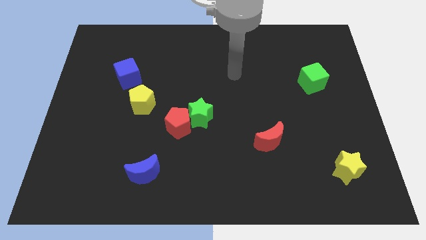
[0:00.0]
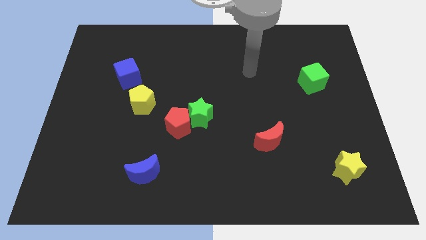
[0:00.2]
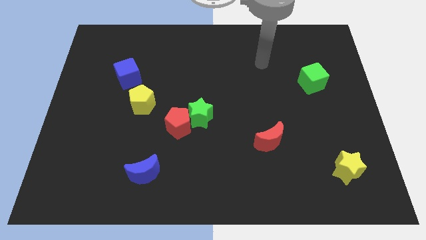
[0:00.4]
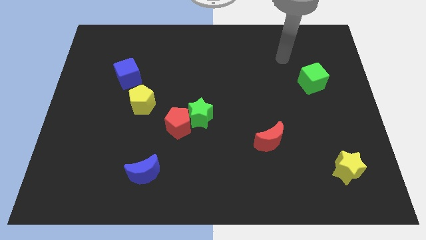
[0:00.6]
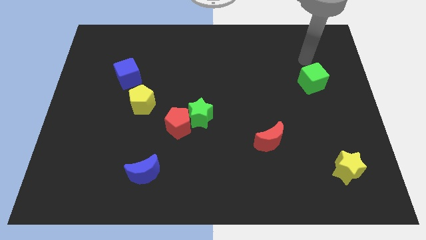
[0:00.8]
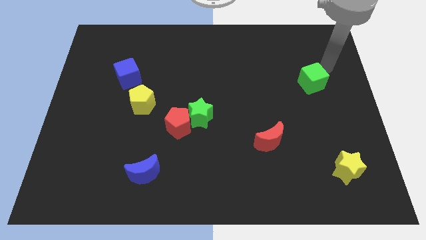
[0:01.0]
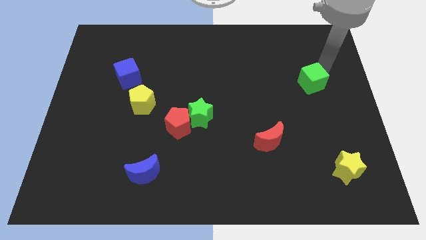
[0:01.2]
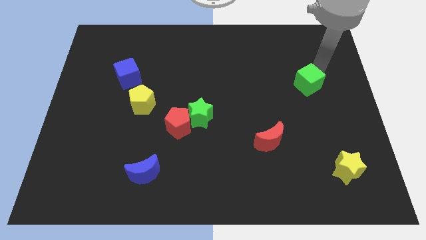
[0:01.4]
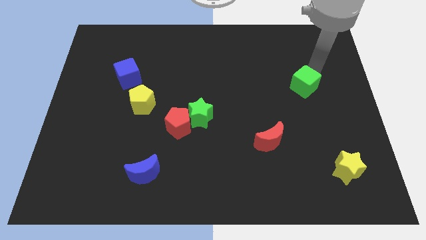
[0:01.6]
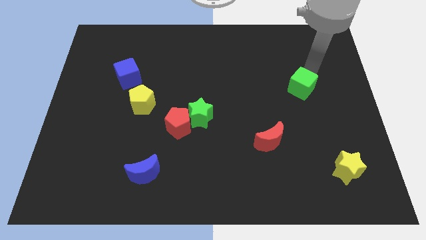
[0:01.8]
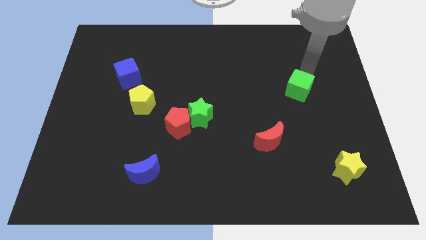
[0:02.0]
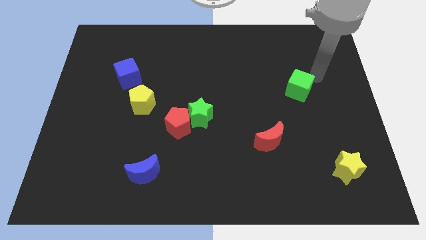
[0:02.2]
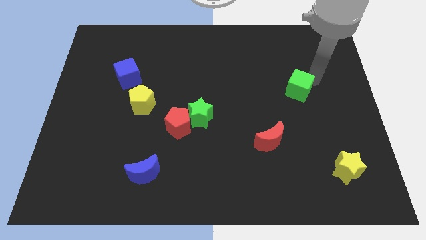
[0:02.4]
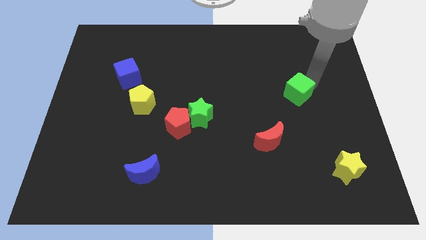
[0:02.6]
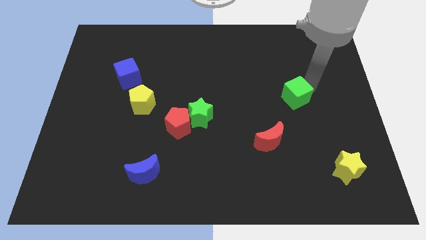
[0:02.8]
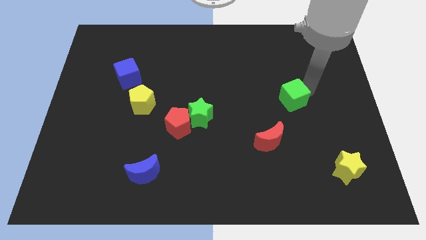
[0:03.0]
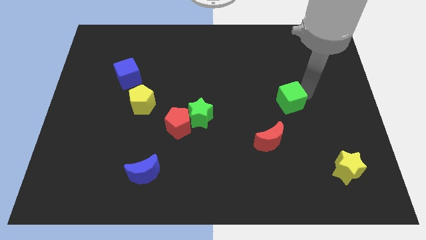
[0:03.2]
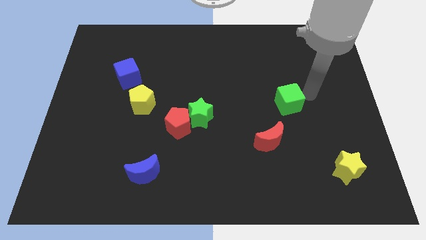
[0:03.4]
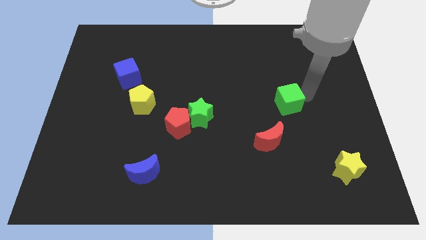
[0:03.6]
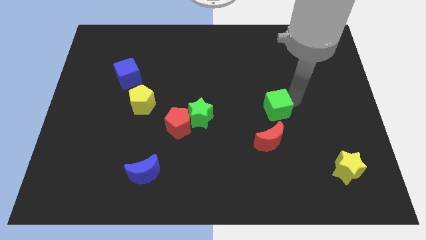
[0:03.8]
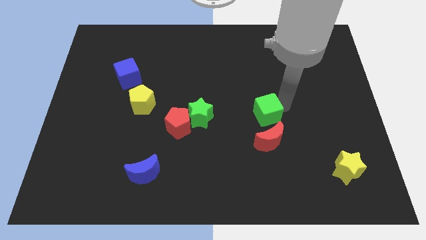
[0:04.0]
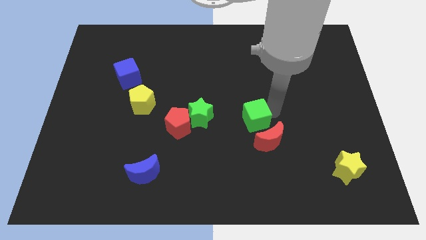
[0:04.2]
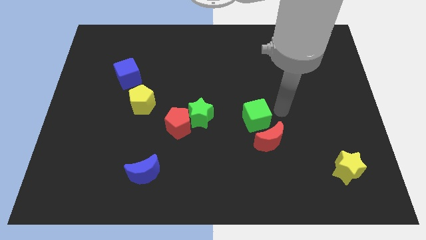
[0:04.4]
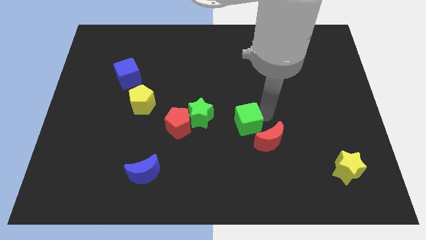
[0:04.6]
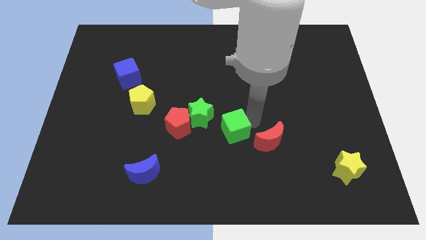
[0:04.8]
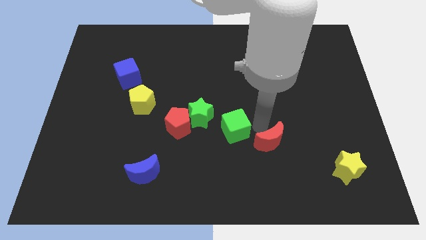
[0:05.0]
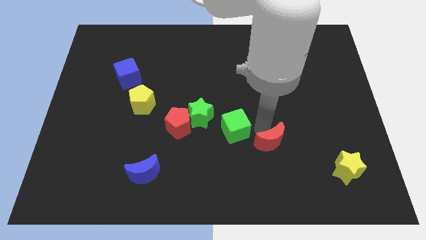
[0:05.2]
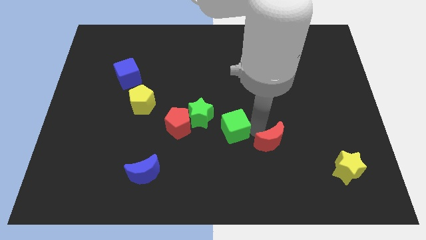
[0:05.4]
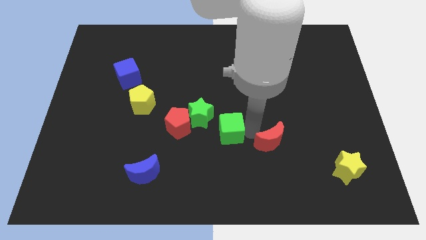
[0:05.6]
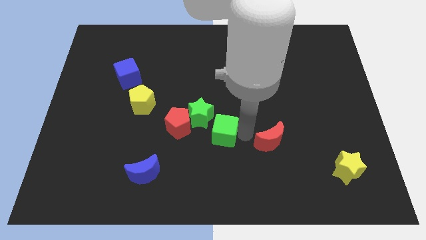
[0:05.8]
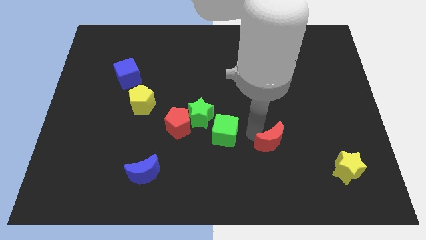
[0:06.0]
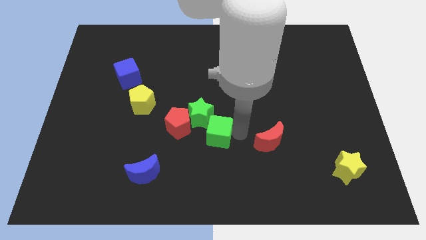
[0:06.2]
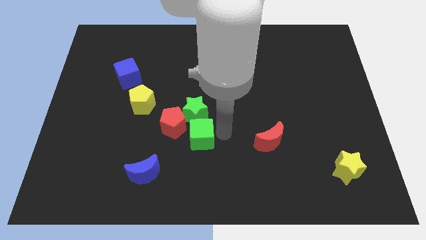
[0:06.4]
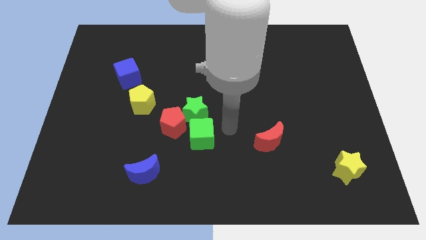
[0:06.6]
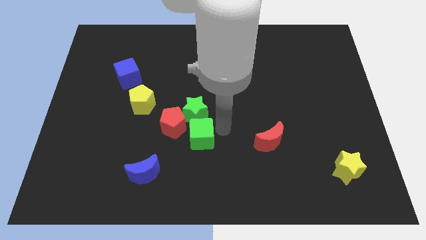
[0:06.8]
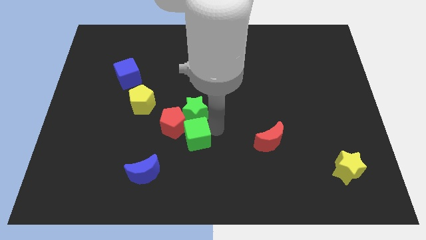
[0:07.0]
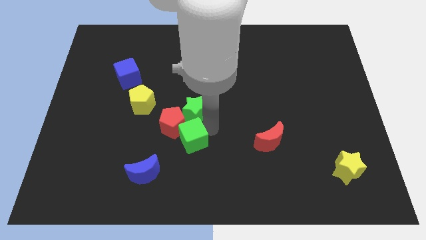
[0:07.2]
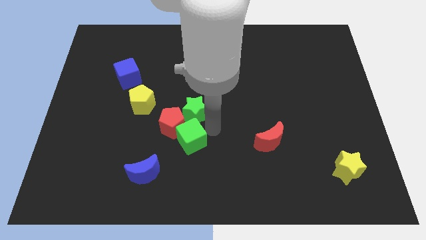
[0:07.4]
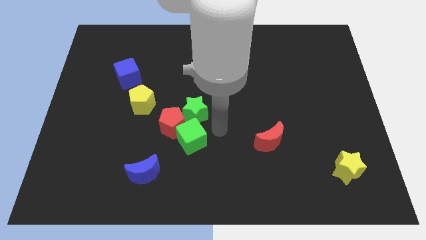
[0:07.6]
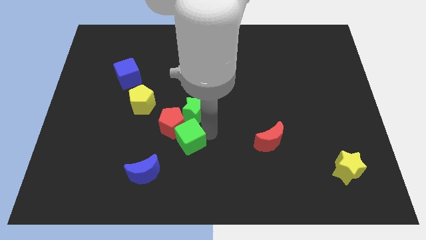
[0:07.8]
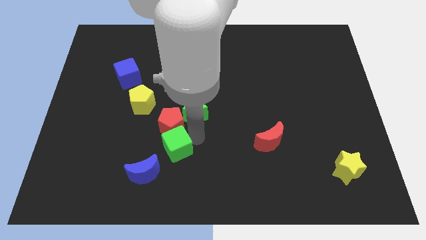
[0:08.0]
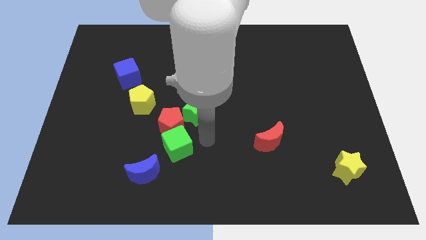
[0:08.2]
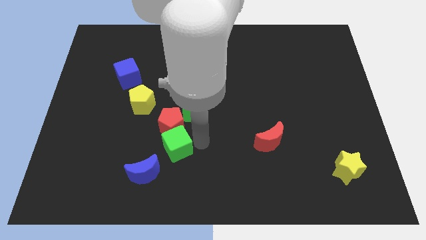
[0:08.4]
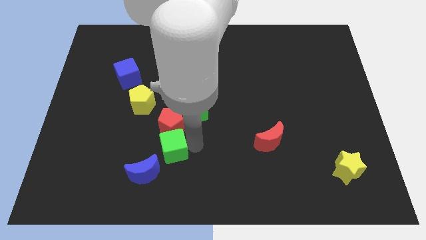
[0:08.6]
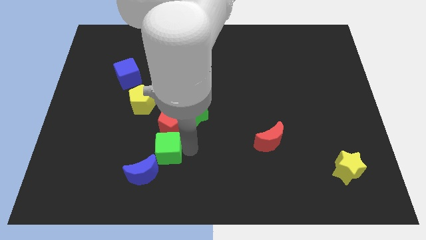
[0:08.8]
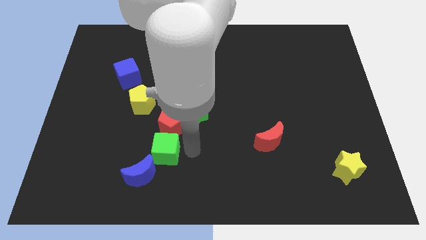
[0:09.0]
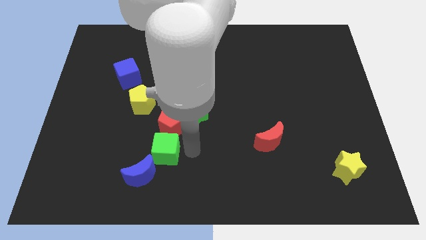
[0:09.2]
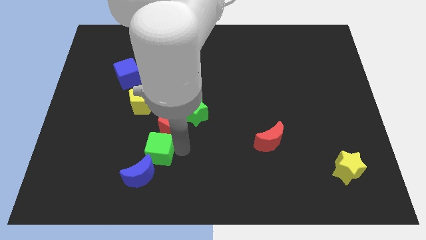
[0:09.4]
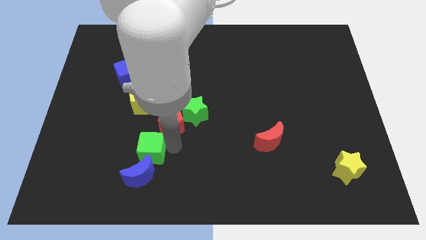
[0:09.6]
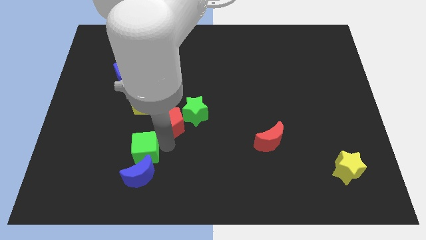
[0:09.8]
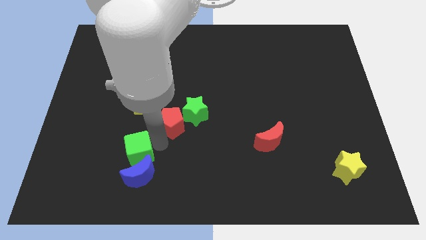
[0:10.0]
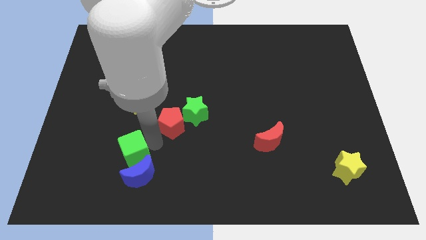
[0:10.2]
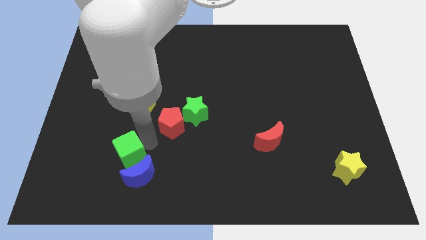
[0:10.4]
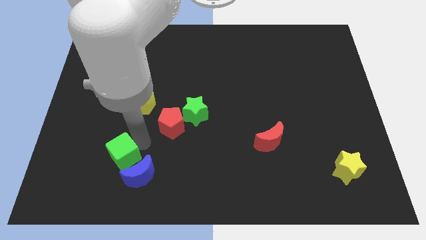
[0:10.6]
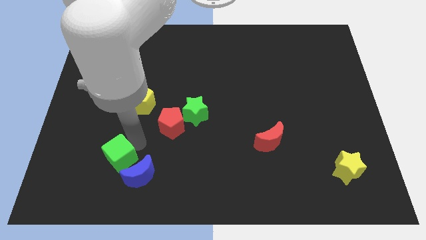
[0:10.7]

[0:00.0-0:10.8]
push the green cube just left of the blue moon

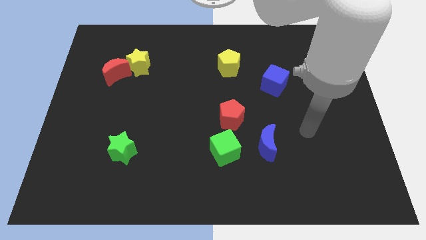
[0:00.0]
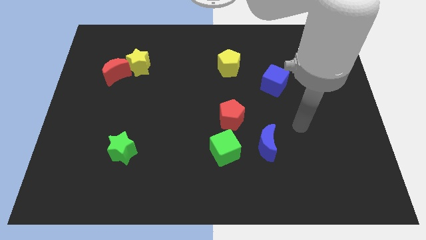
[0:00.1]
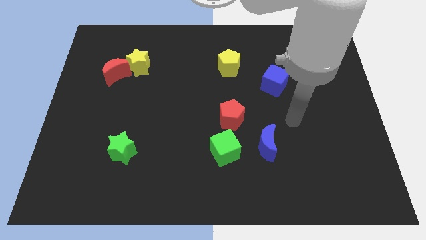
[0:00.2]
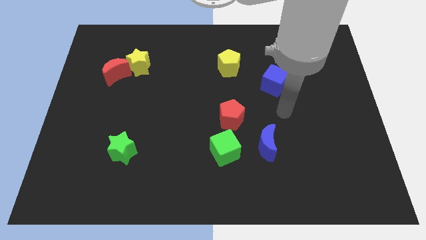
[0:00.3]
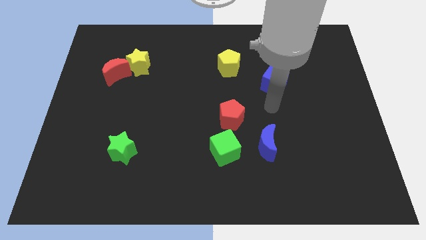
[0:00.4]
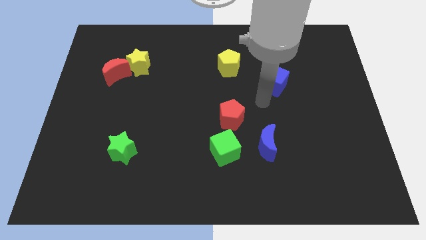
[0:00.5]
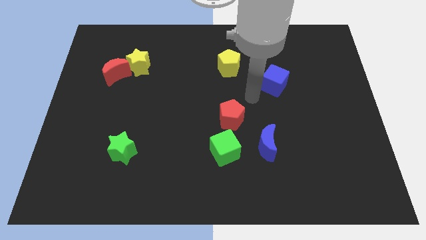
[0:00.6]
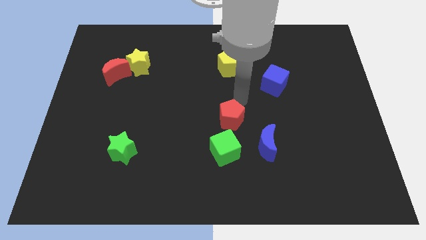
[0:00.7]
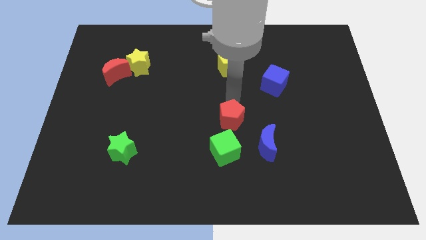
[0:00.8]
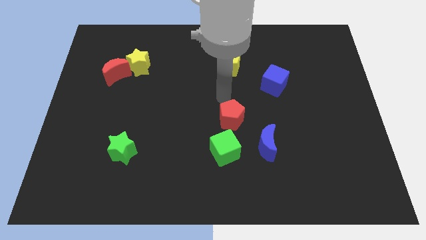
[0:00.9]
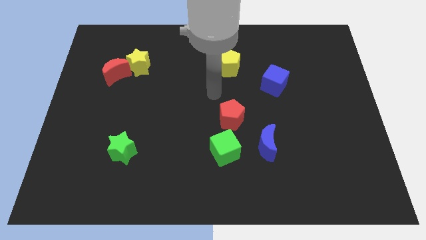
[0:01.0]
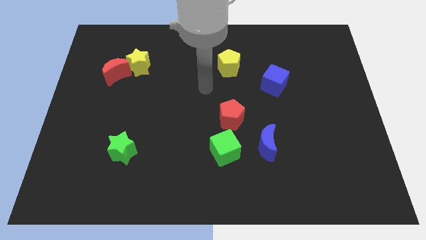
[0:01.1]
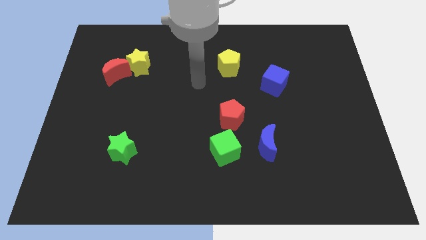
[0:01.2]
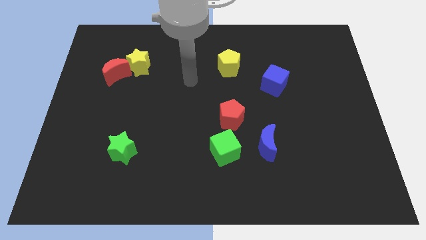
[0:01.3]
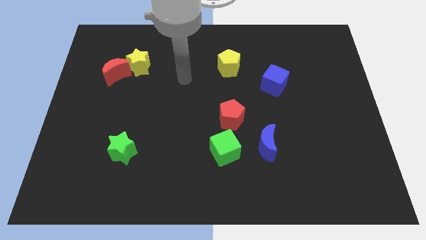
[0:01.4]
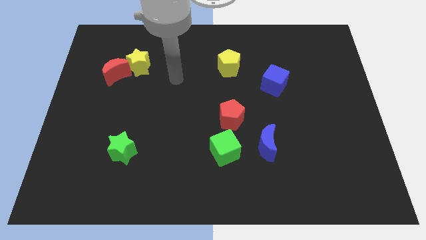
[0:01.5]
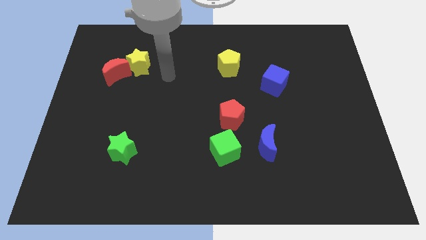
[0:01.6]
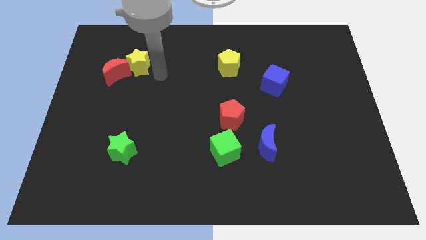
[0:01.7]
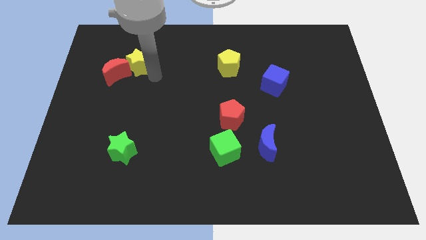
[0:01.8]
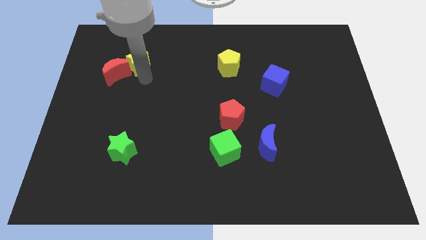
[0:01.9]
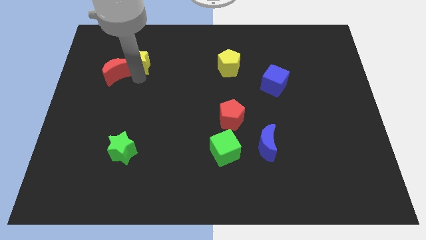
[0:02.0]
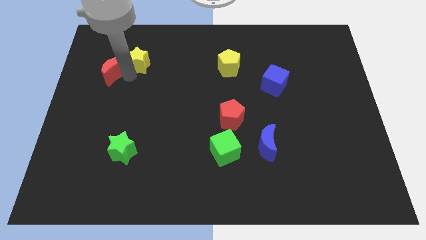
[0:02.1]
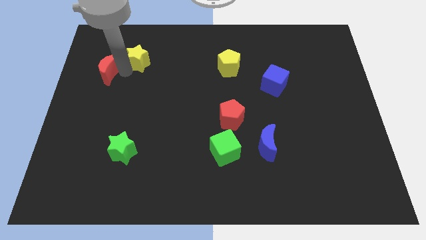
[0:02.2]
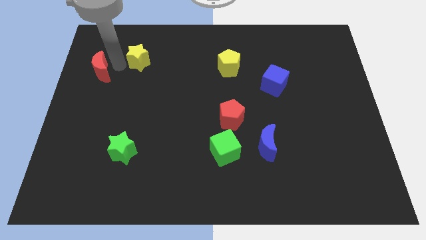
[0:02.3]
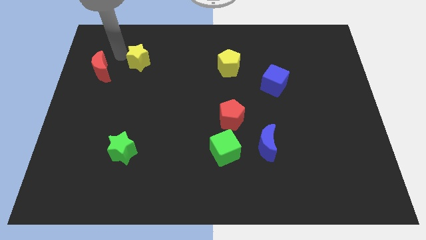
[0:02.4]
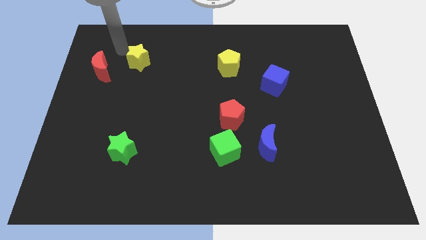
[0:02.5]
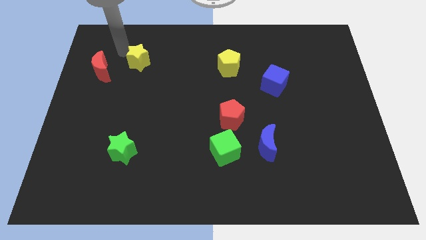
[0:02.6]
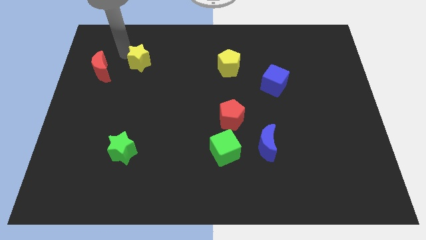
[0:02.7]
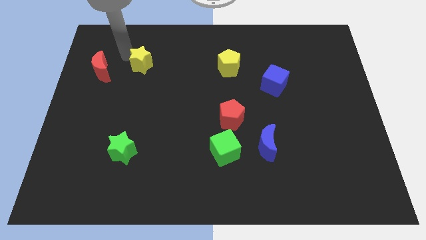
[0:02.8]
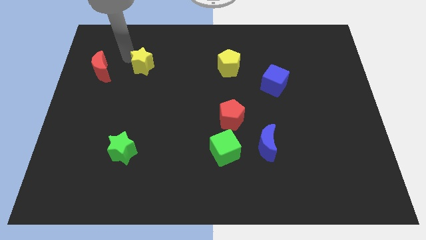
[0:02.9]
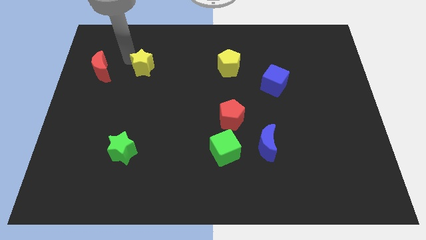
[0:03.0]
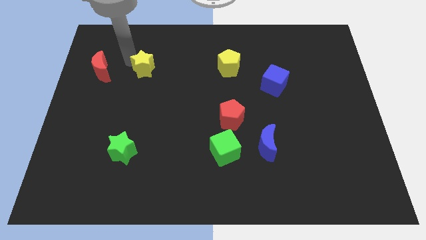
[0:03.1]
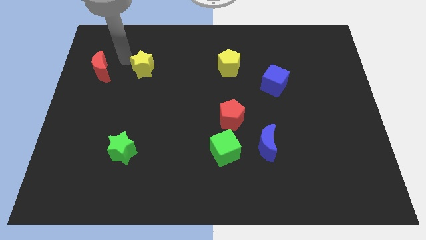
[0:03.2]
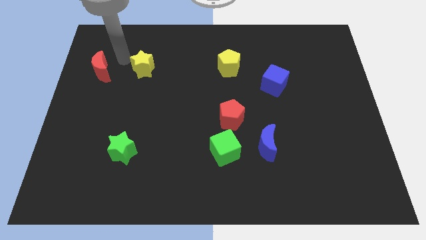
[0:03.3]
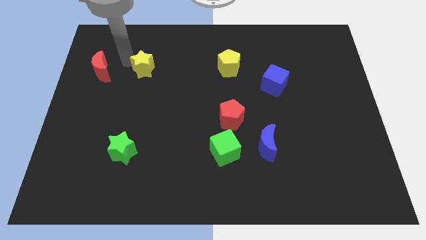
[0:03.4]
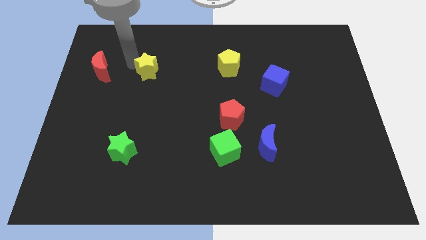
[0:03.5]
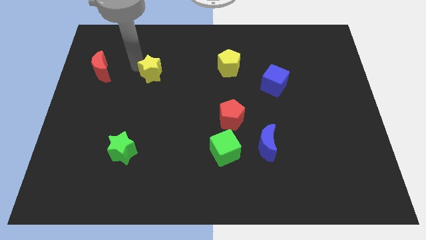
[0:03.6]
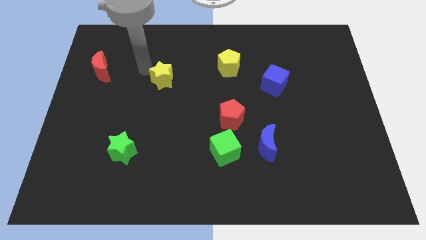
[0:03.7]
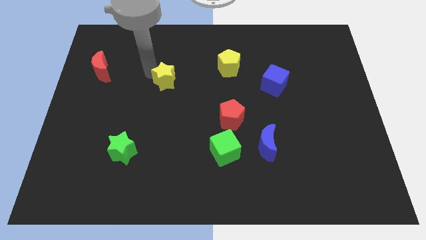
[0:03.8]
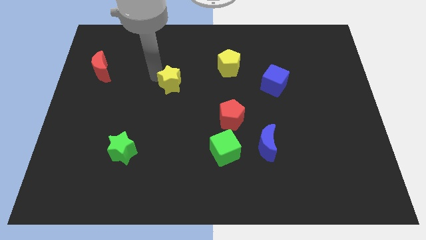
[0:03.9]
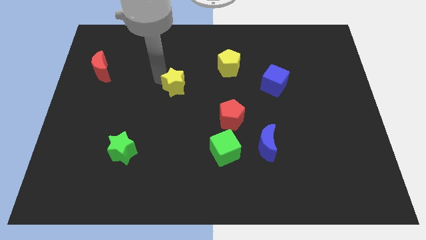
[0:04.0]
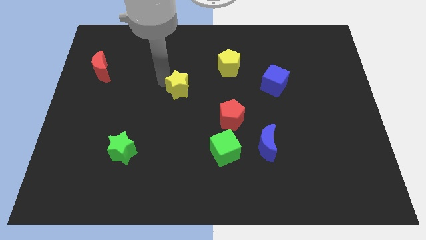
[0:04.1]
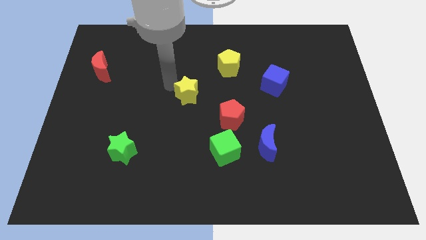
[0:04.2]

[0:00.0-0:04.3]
move the yellow star to the top left of the red pentagon
